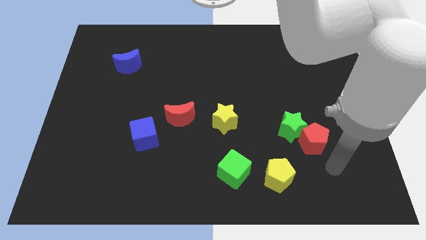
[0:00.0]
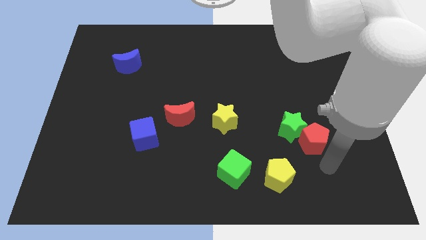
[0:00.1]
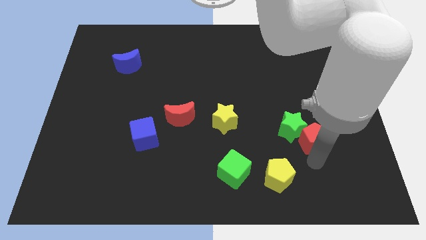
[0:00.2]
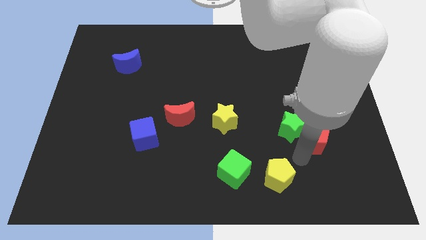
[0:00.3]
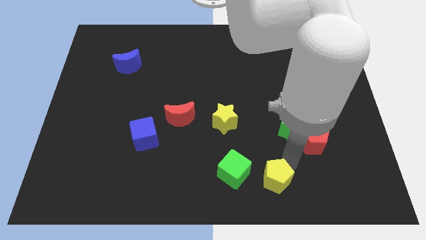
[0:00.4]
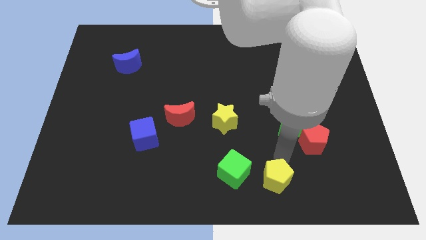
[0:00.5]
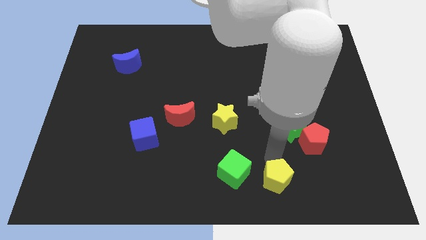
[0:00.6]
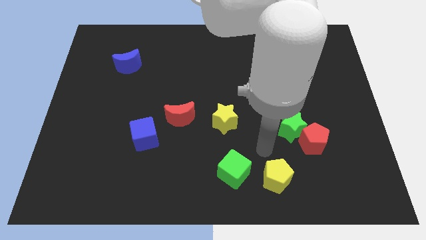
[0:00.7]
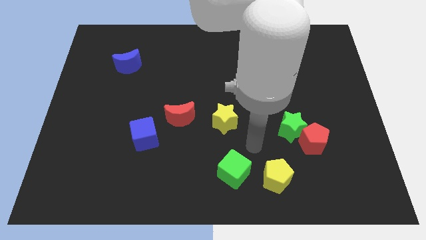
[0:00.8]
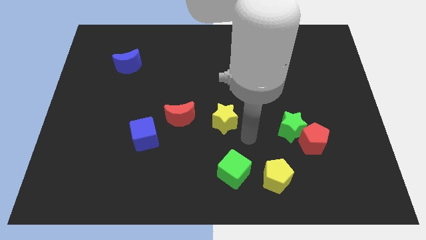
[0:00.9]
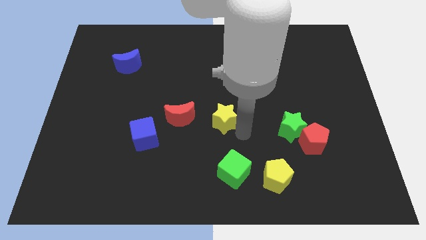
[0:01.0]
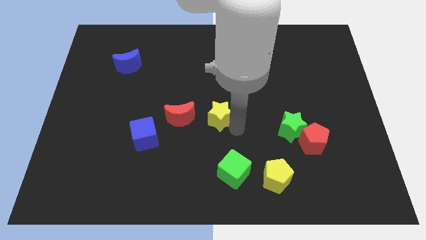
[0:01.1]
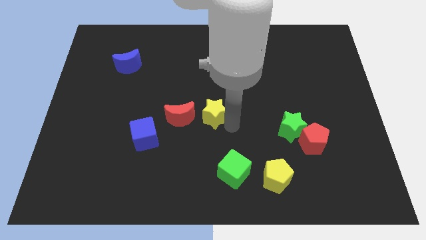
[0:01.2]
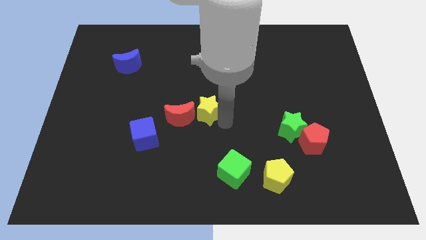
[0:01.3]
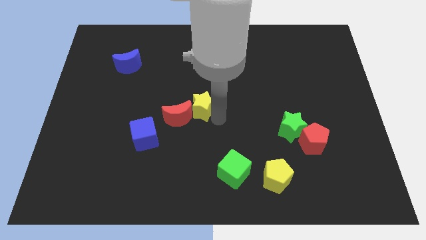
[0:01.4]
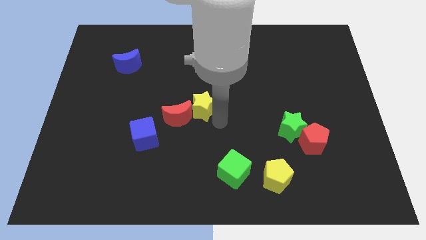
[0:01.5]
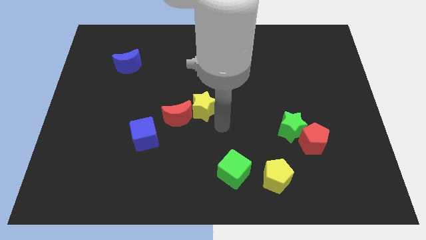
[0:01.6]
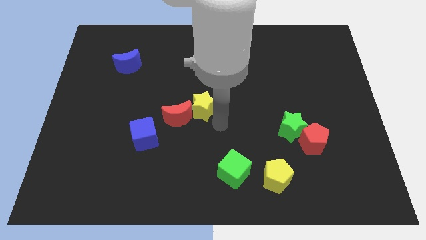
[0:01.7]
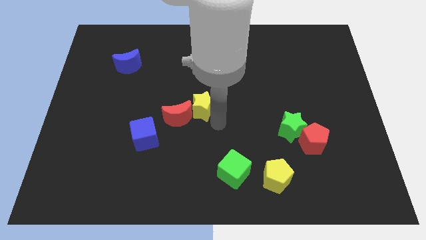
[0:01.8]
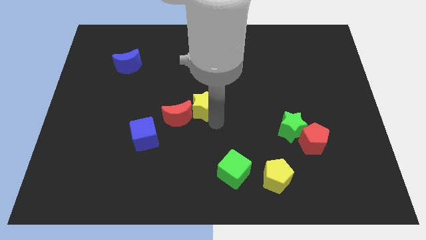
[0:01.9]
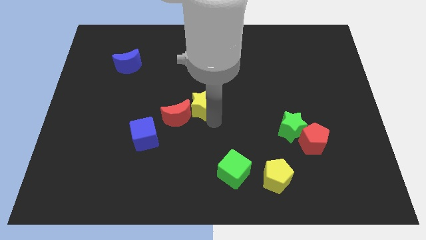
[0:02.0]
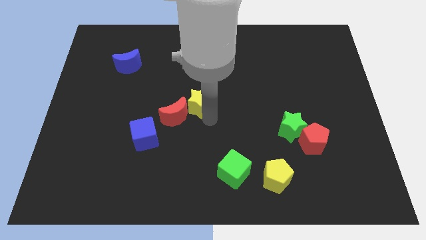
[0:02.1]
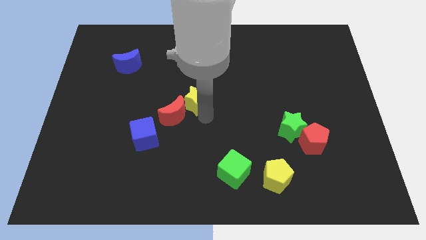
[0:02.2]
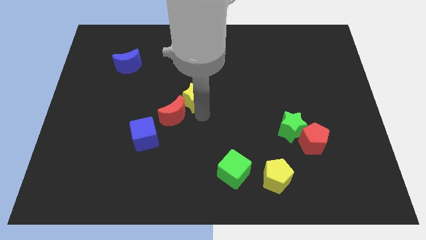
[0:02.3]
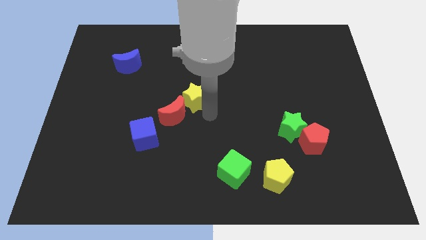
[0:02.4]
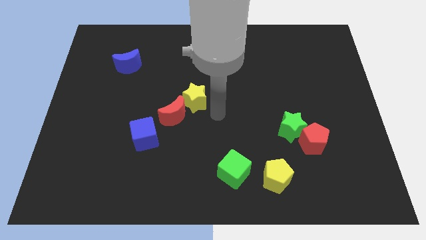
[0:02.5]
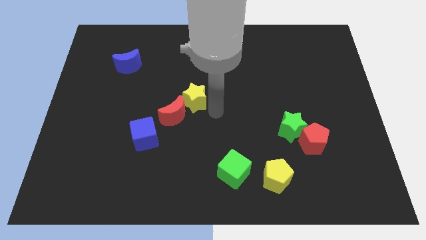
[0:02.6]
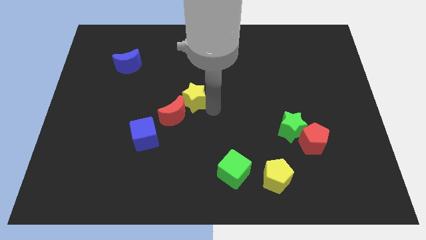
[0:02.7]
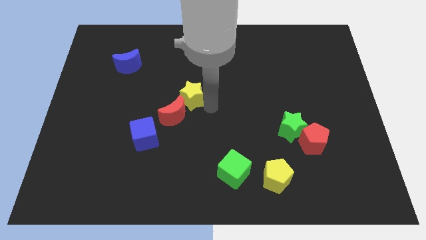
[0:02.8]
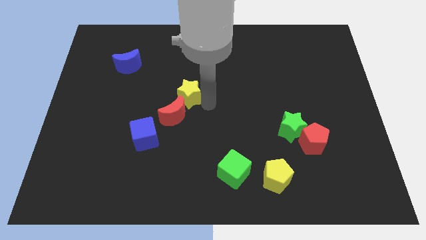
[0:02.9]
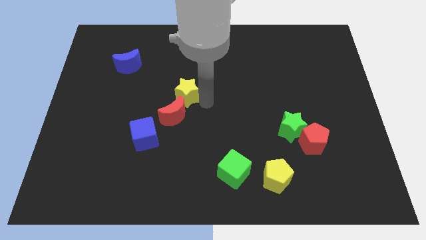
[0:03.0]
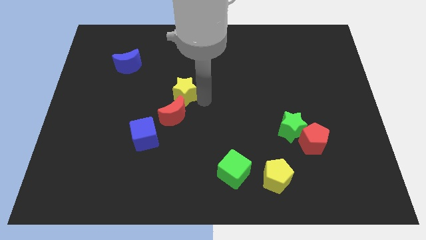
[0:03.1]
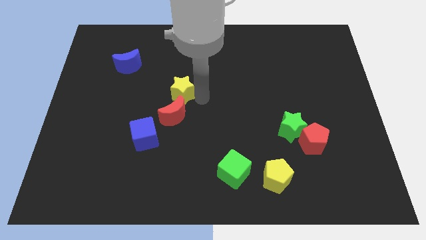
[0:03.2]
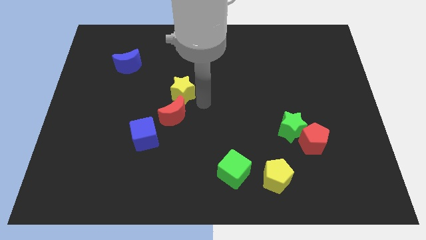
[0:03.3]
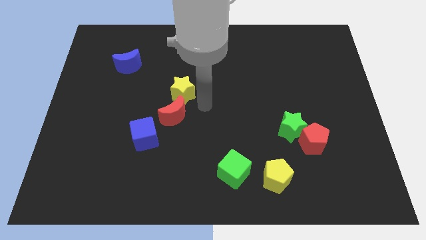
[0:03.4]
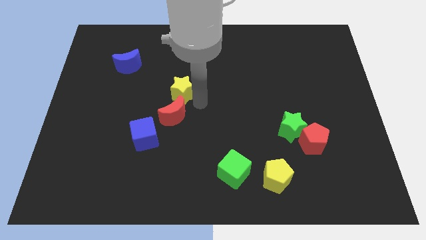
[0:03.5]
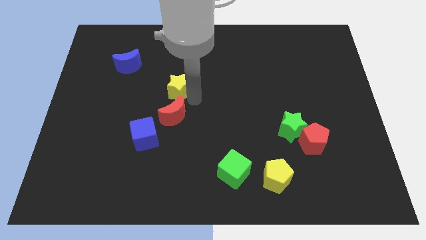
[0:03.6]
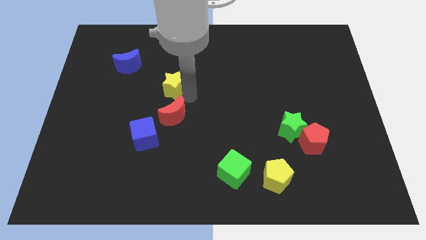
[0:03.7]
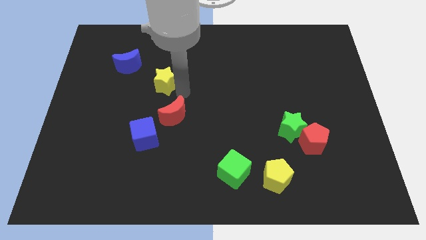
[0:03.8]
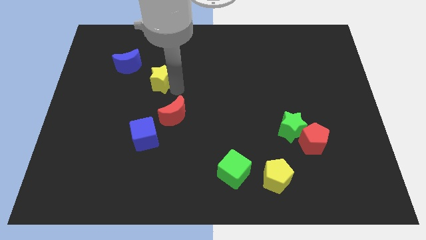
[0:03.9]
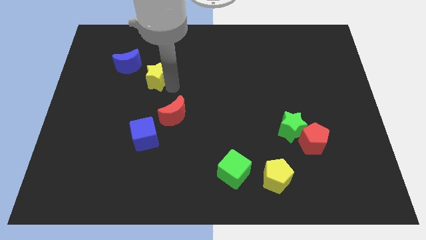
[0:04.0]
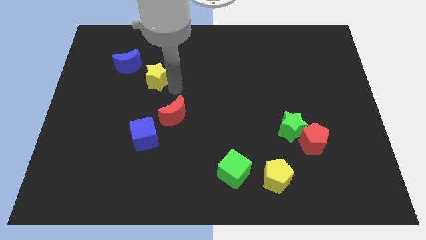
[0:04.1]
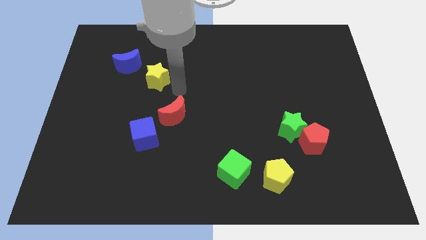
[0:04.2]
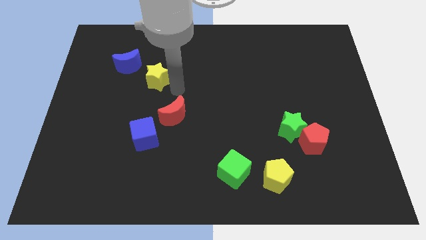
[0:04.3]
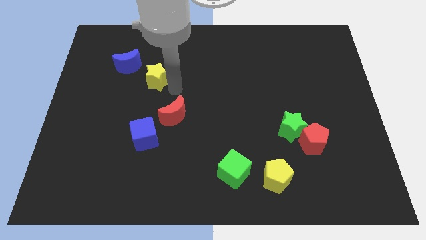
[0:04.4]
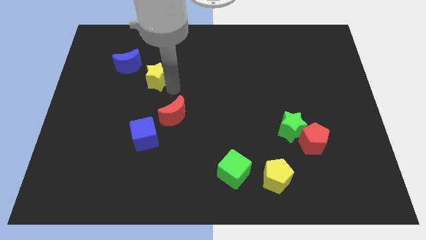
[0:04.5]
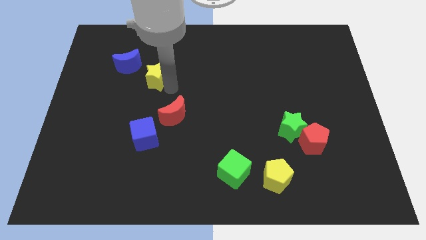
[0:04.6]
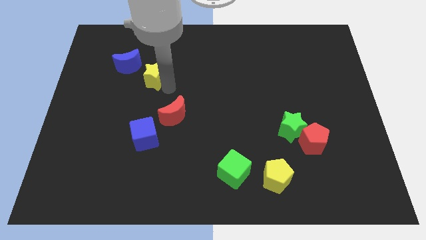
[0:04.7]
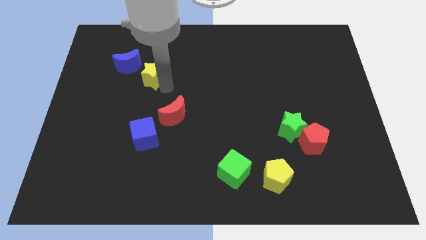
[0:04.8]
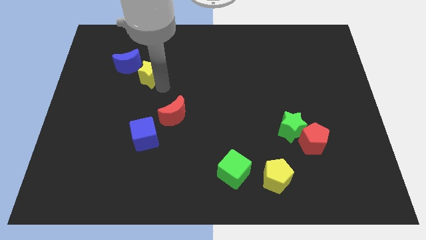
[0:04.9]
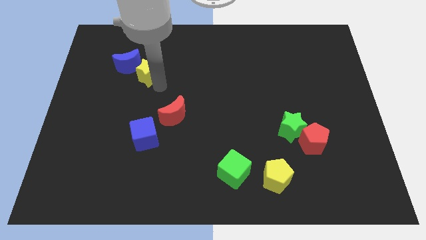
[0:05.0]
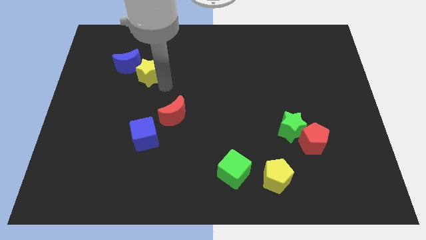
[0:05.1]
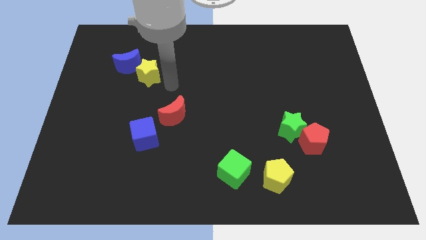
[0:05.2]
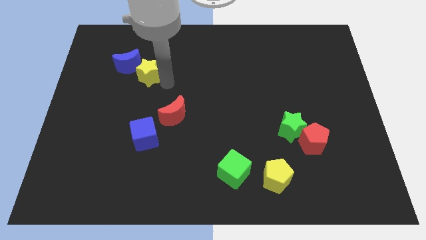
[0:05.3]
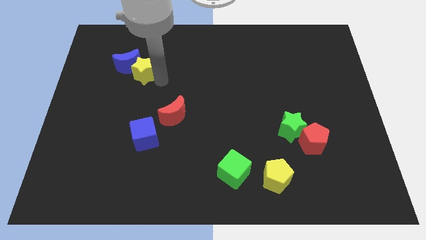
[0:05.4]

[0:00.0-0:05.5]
move the yellow star close to the blue moon

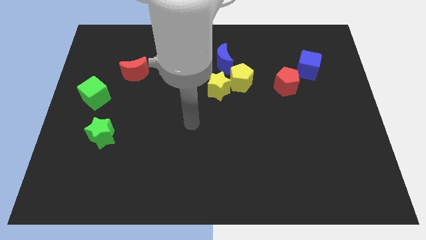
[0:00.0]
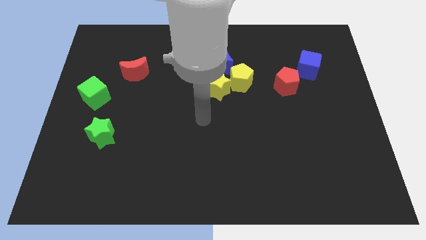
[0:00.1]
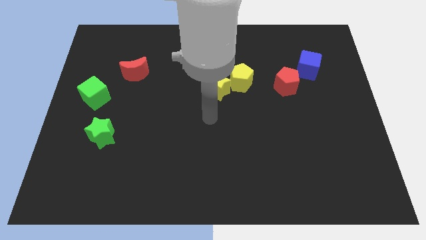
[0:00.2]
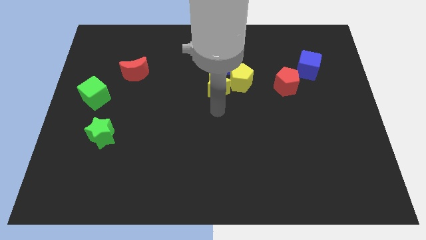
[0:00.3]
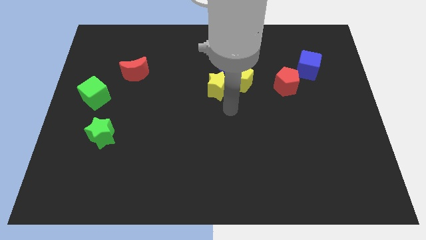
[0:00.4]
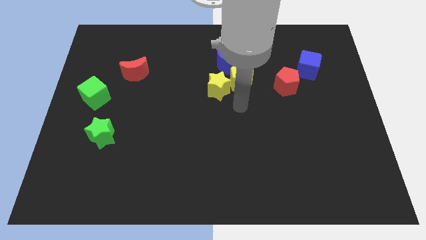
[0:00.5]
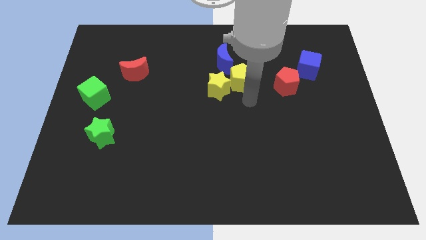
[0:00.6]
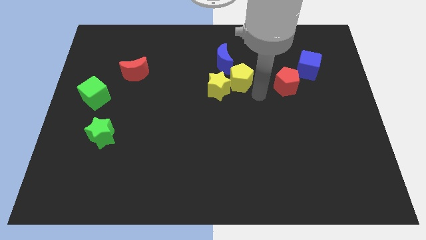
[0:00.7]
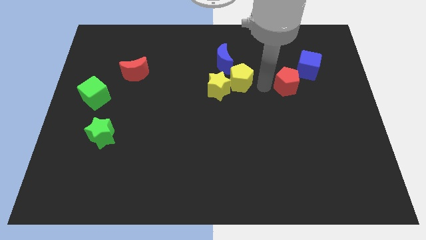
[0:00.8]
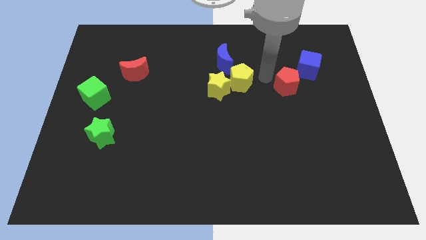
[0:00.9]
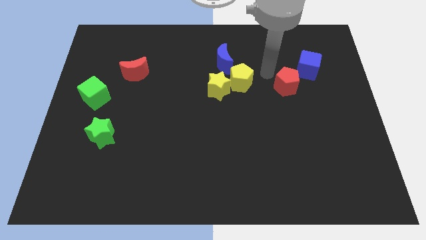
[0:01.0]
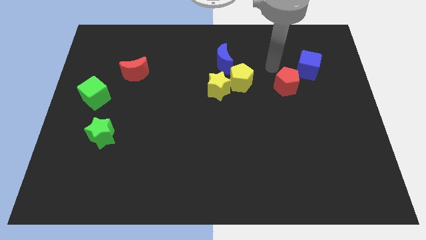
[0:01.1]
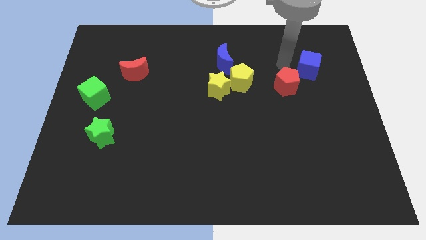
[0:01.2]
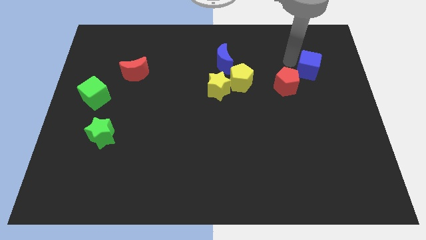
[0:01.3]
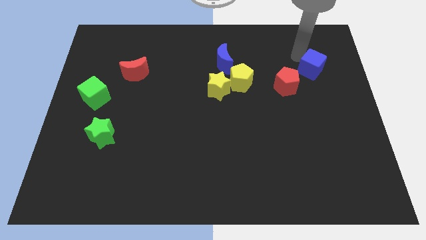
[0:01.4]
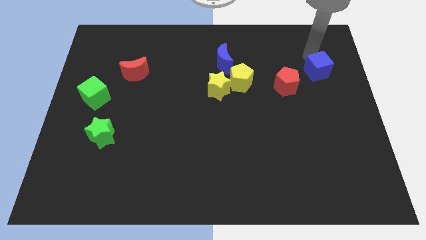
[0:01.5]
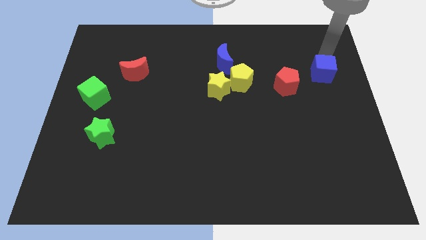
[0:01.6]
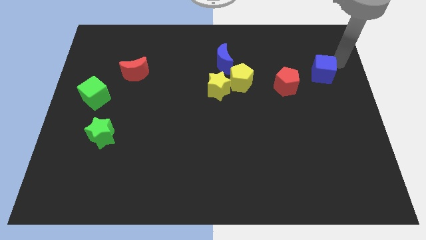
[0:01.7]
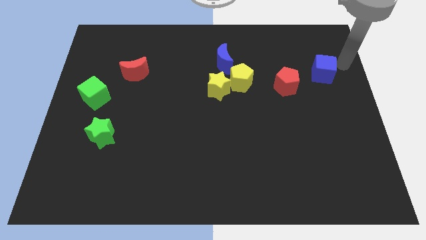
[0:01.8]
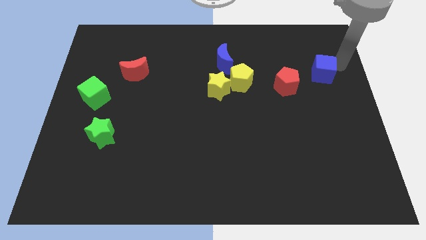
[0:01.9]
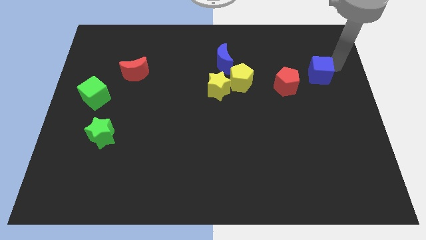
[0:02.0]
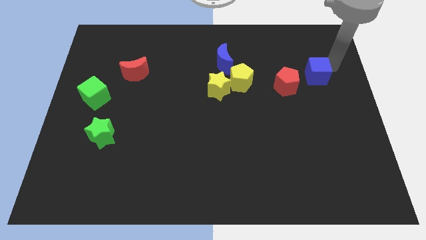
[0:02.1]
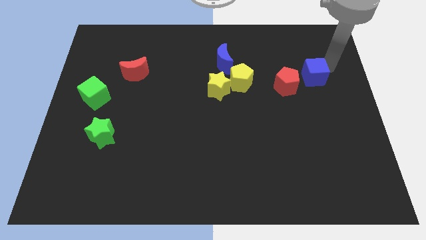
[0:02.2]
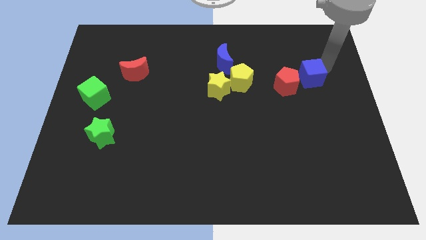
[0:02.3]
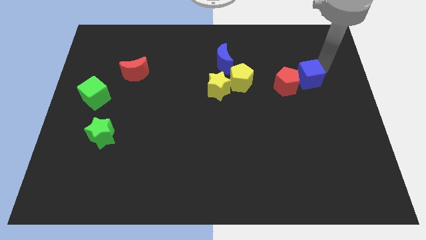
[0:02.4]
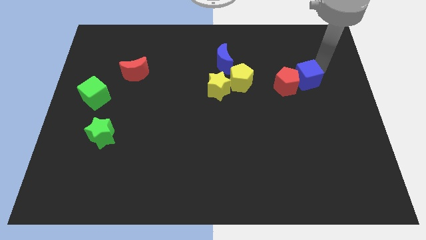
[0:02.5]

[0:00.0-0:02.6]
slide the blue cube next to the red pentagon
